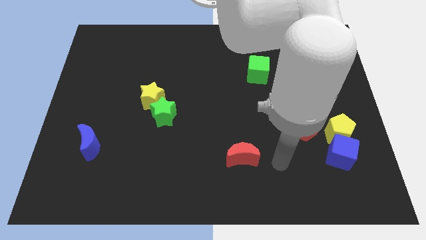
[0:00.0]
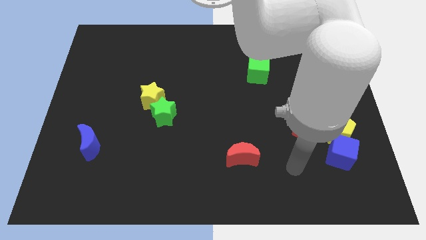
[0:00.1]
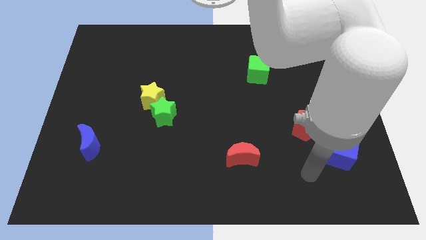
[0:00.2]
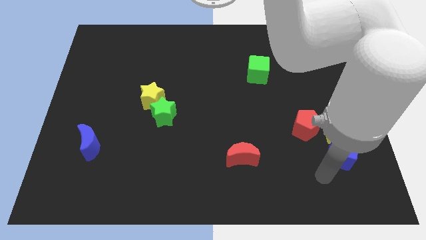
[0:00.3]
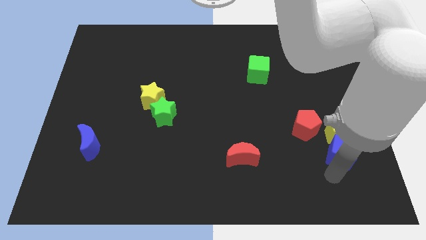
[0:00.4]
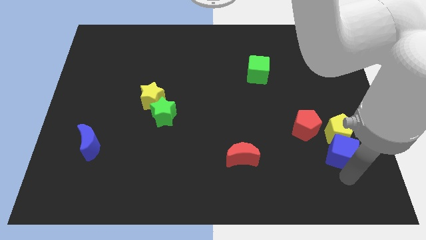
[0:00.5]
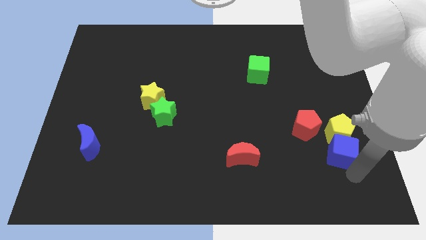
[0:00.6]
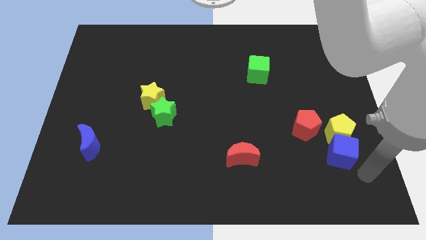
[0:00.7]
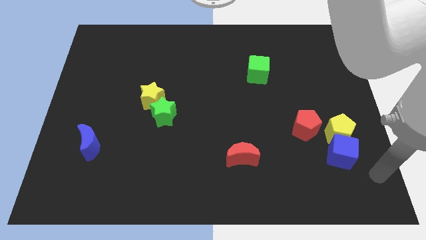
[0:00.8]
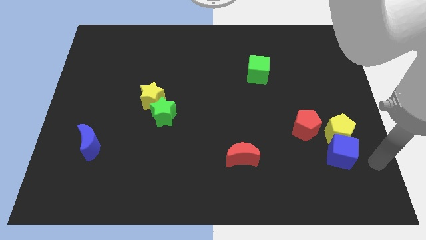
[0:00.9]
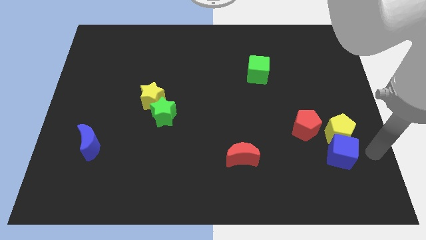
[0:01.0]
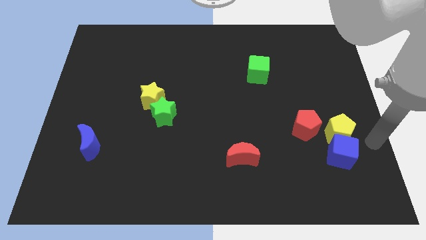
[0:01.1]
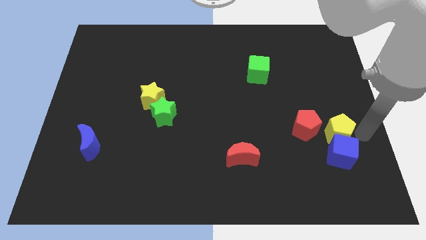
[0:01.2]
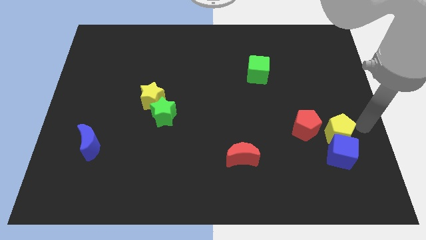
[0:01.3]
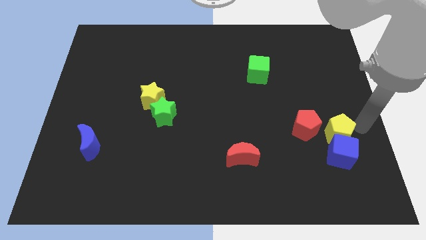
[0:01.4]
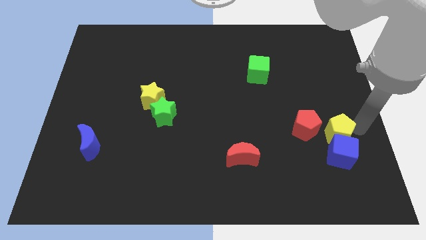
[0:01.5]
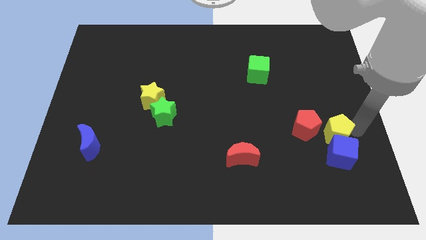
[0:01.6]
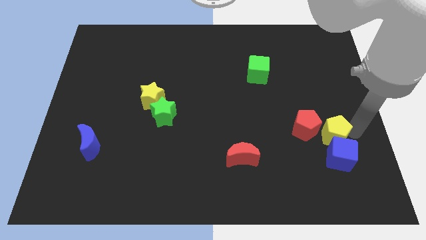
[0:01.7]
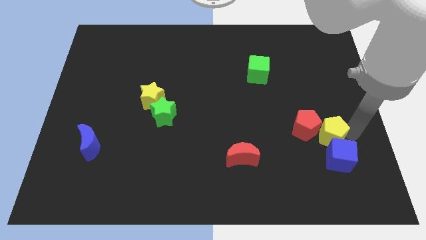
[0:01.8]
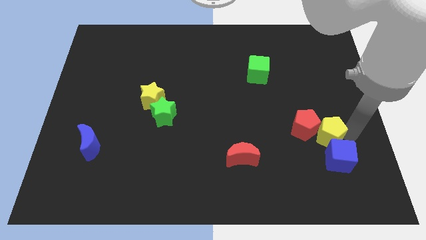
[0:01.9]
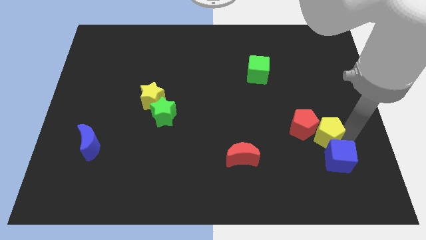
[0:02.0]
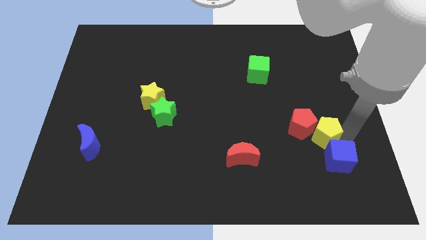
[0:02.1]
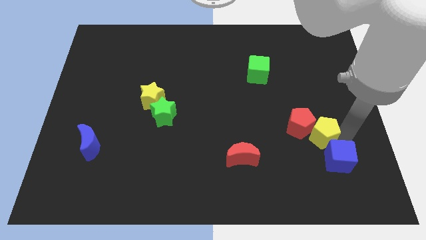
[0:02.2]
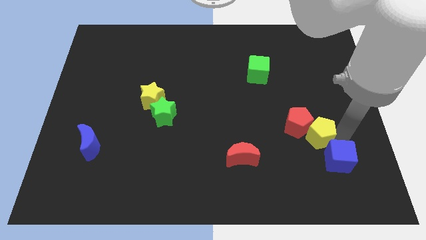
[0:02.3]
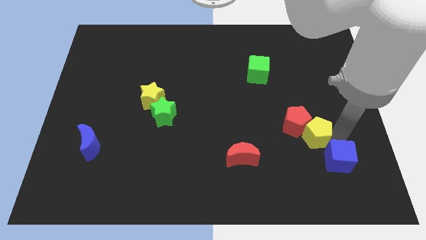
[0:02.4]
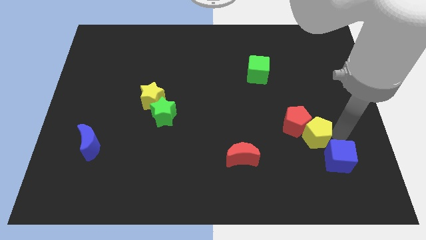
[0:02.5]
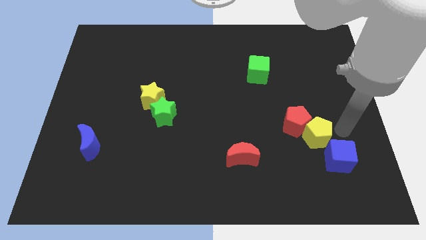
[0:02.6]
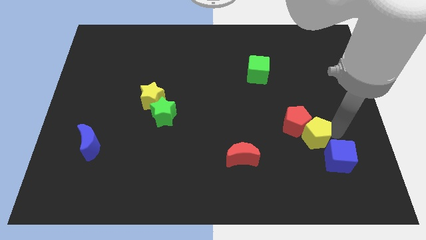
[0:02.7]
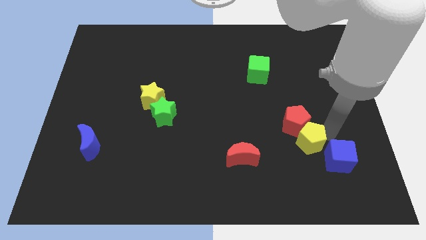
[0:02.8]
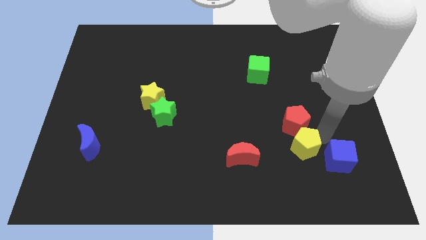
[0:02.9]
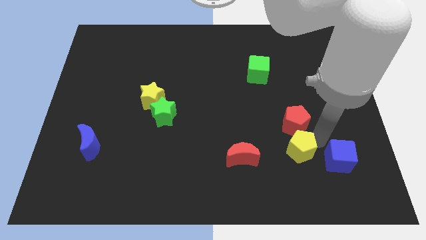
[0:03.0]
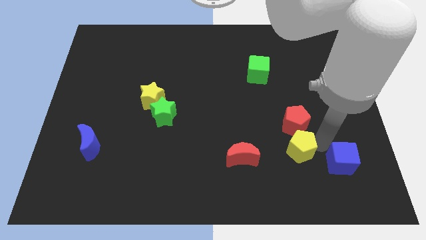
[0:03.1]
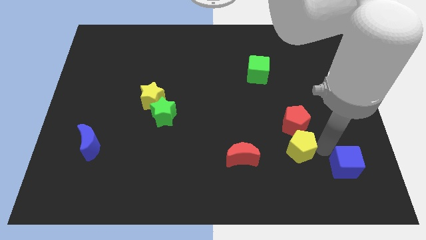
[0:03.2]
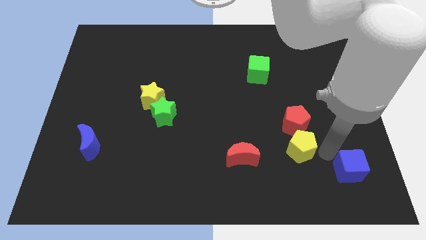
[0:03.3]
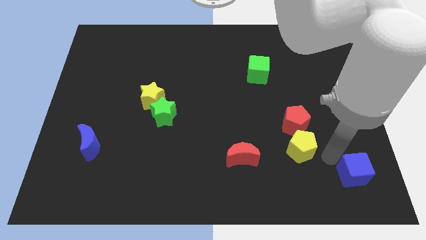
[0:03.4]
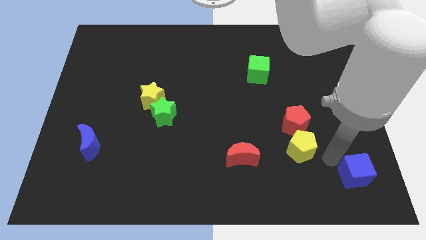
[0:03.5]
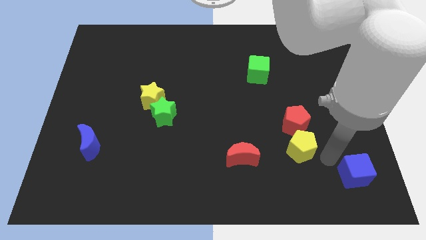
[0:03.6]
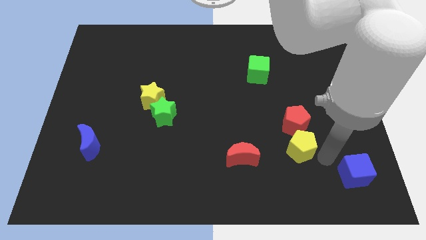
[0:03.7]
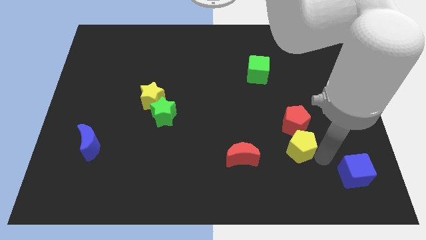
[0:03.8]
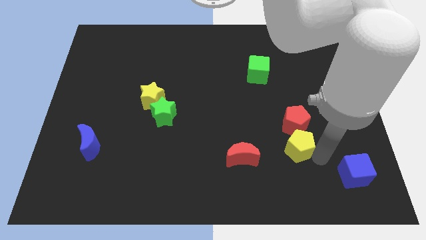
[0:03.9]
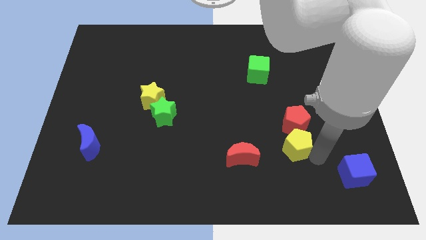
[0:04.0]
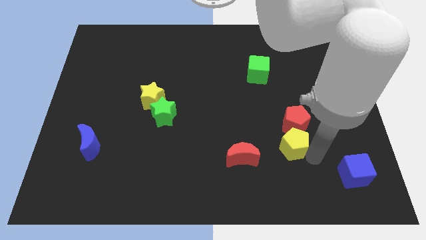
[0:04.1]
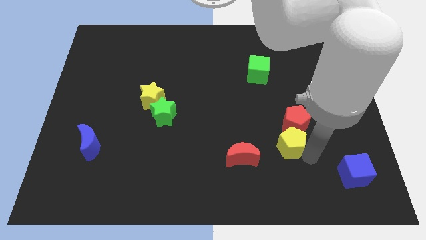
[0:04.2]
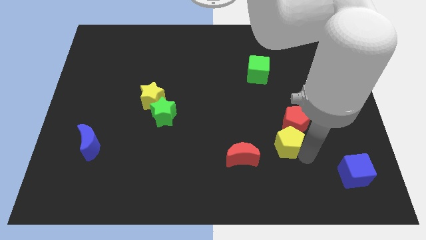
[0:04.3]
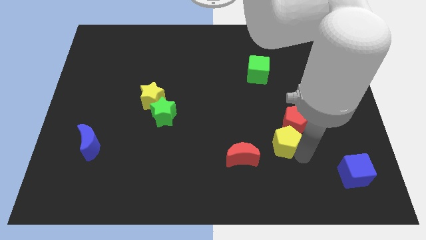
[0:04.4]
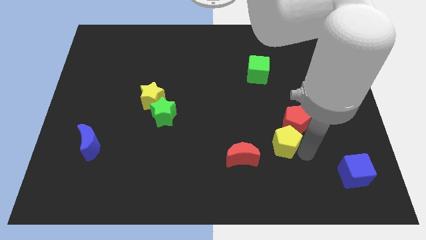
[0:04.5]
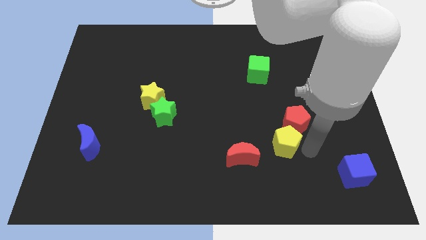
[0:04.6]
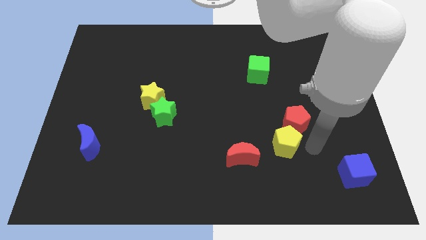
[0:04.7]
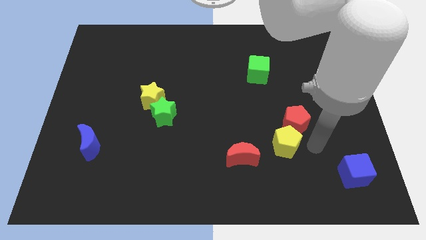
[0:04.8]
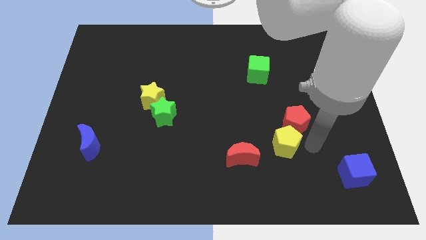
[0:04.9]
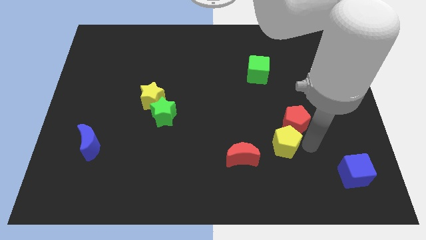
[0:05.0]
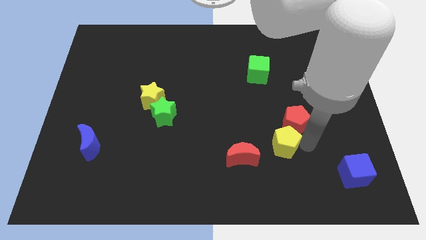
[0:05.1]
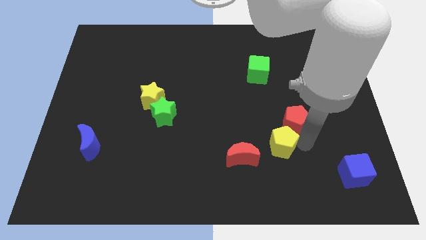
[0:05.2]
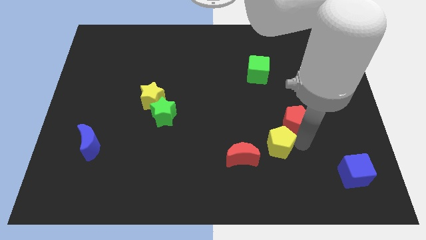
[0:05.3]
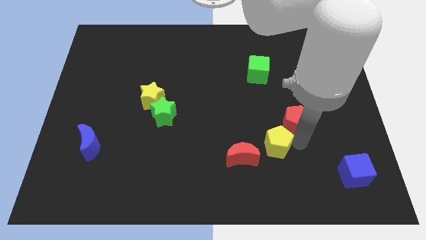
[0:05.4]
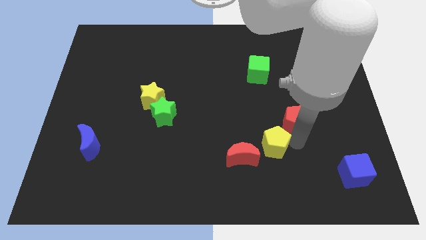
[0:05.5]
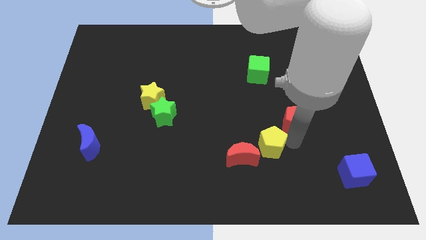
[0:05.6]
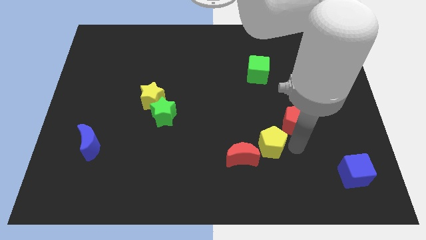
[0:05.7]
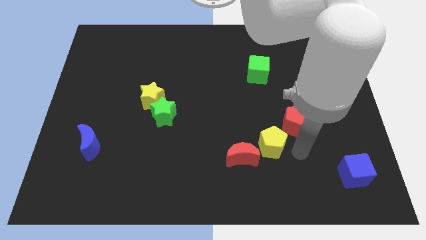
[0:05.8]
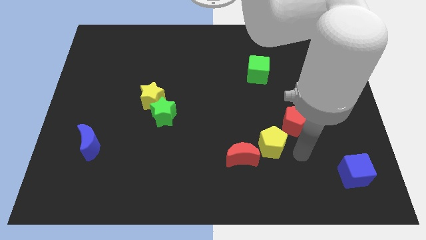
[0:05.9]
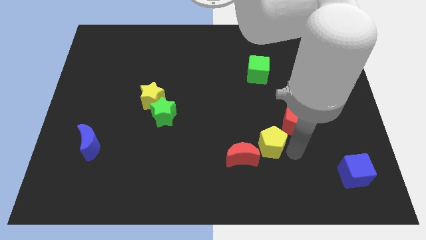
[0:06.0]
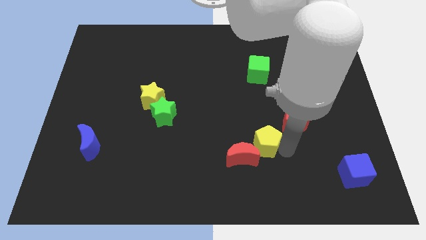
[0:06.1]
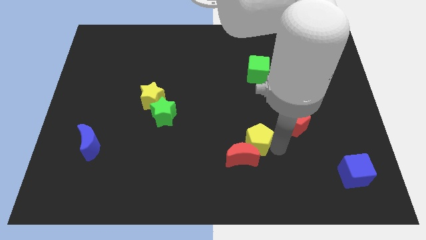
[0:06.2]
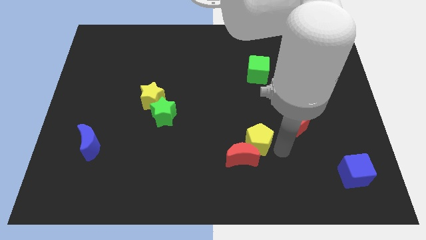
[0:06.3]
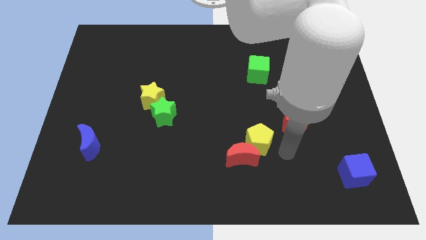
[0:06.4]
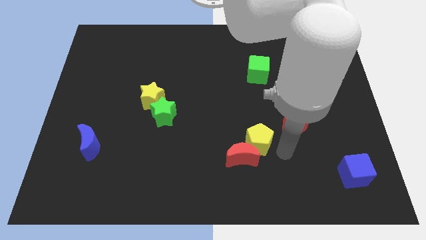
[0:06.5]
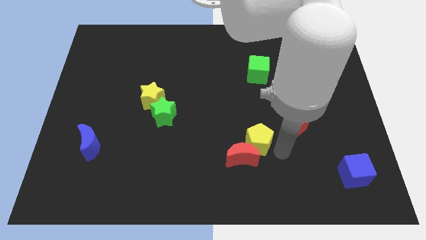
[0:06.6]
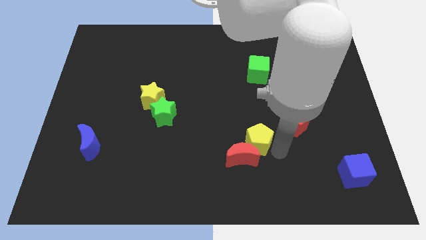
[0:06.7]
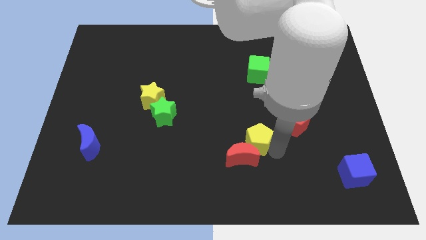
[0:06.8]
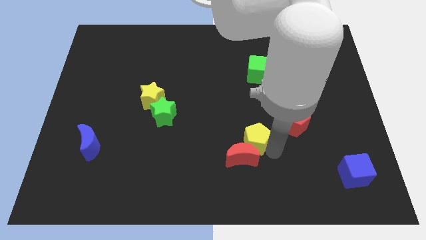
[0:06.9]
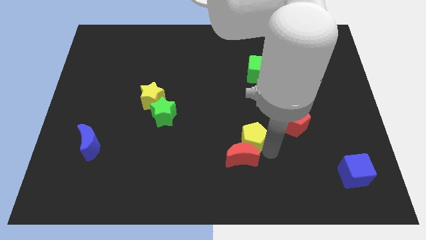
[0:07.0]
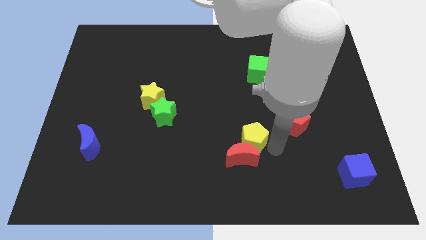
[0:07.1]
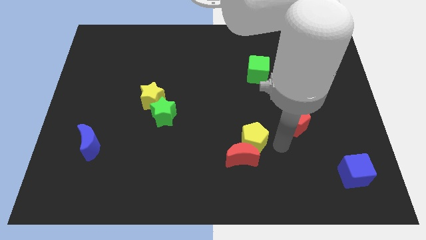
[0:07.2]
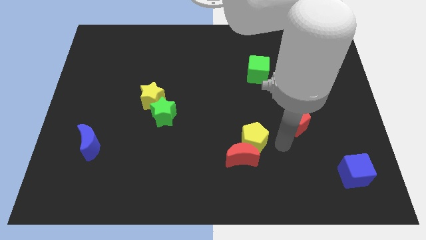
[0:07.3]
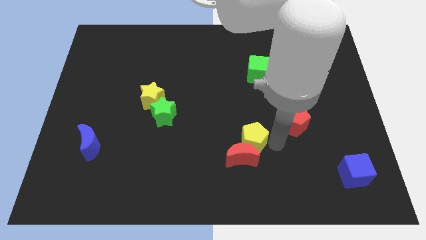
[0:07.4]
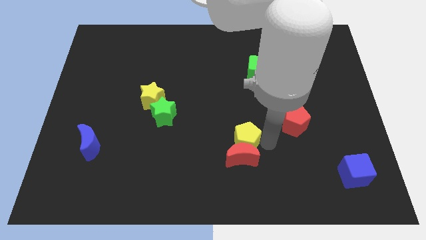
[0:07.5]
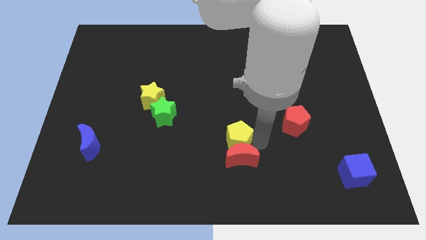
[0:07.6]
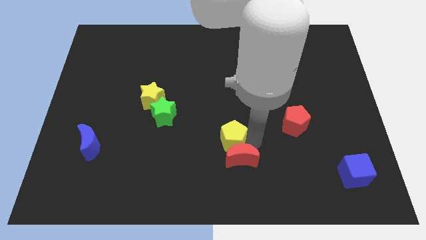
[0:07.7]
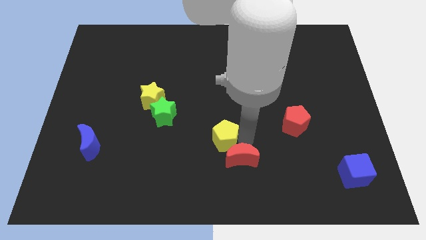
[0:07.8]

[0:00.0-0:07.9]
push the yellow pentagon left of the red moon
